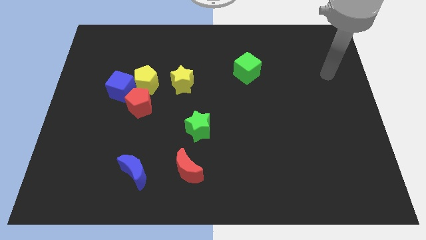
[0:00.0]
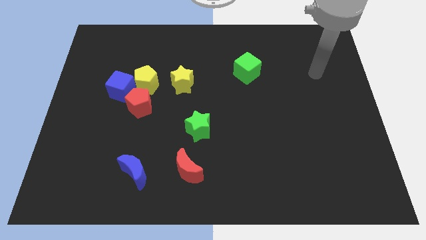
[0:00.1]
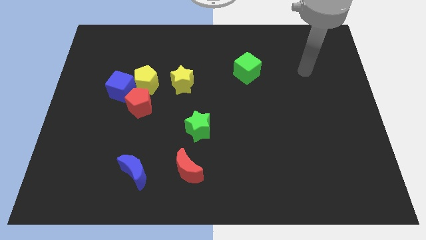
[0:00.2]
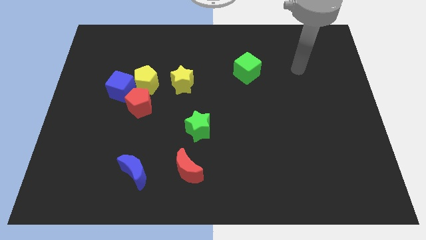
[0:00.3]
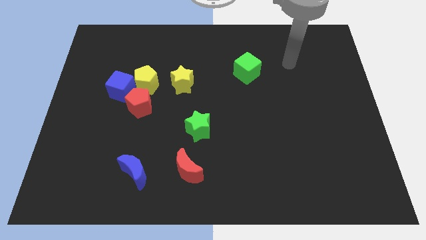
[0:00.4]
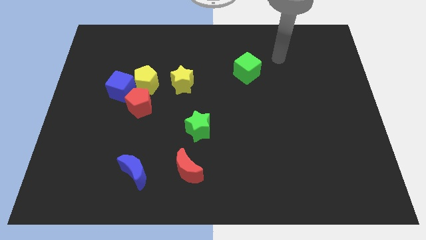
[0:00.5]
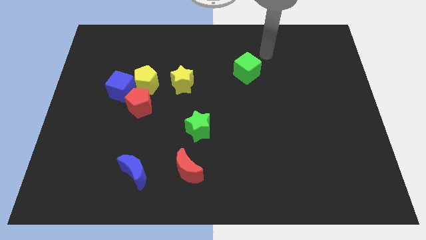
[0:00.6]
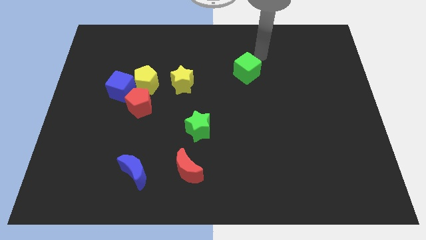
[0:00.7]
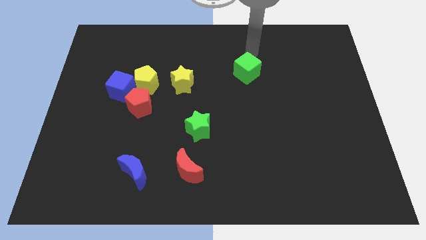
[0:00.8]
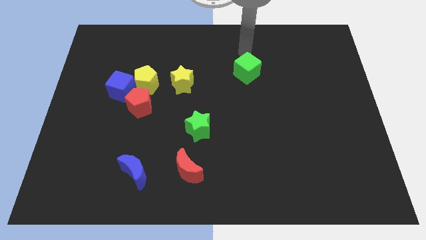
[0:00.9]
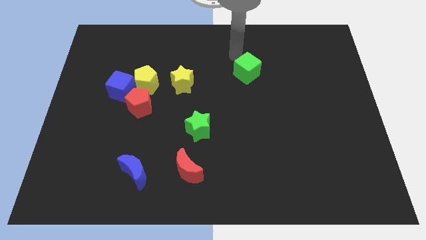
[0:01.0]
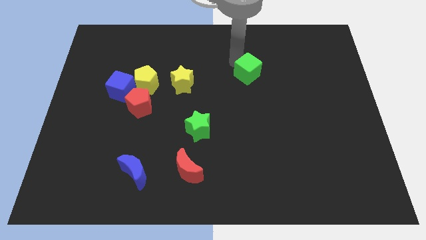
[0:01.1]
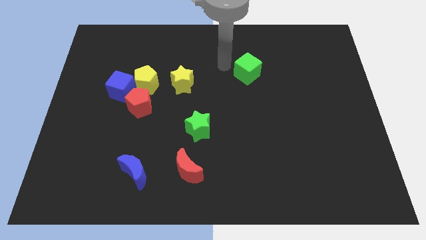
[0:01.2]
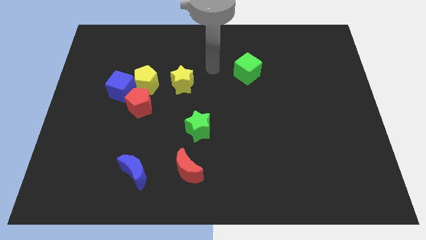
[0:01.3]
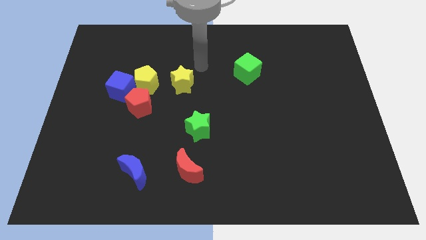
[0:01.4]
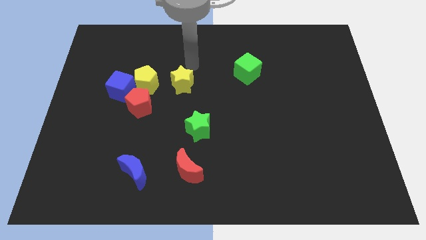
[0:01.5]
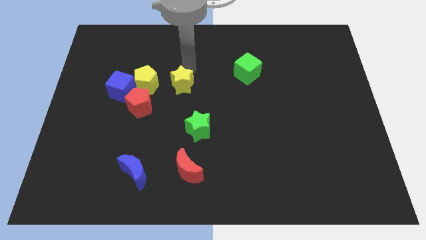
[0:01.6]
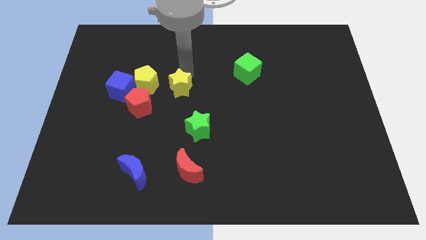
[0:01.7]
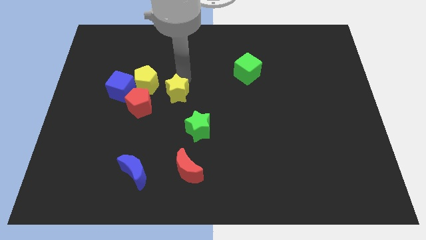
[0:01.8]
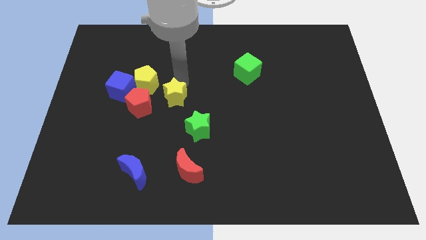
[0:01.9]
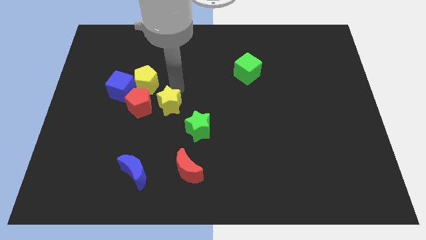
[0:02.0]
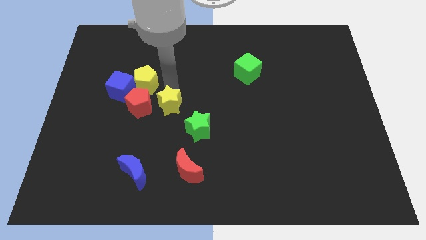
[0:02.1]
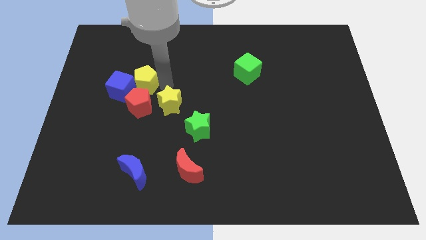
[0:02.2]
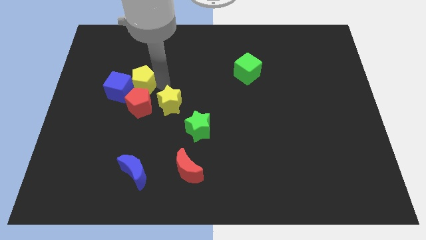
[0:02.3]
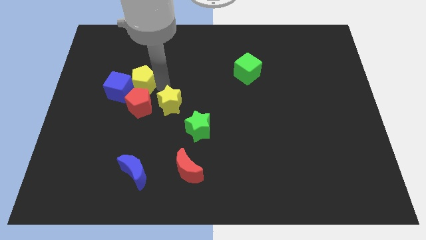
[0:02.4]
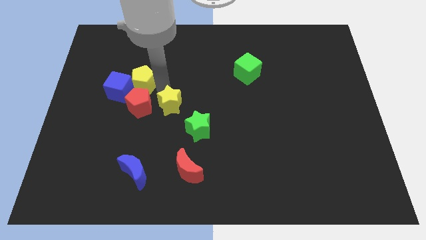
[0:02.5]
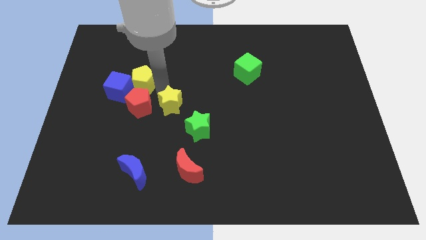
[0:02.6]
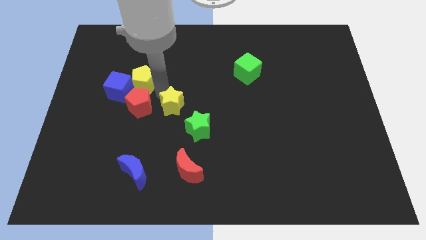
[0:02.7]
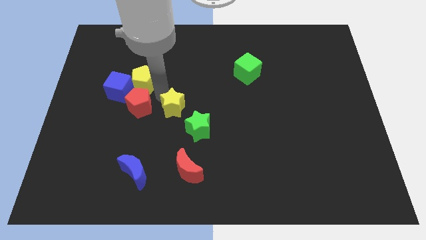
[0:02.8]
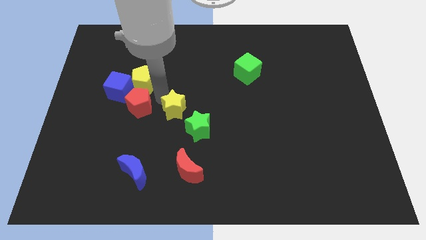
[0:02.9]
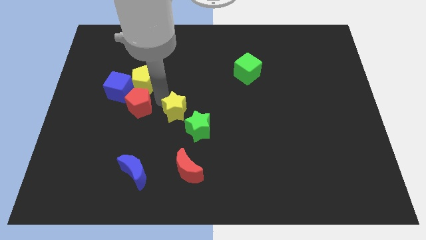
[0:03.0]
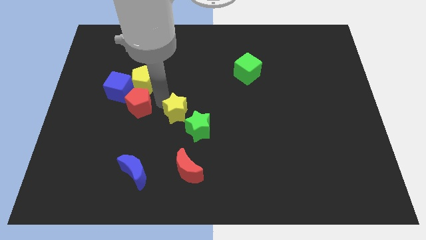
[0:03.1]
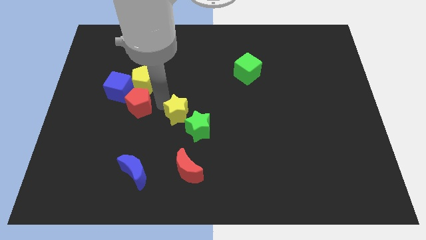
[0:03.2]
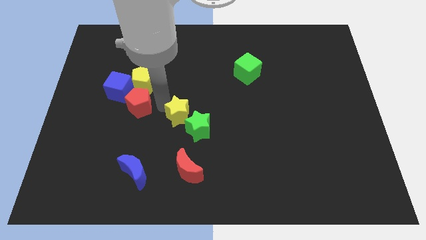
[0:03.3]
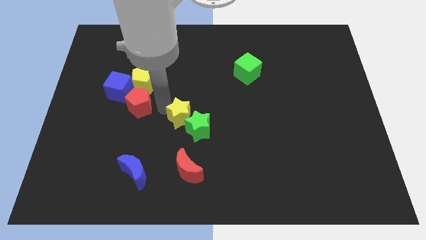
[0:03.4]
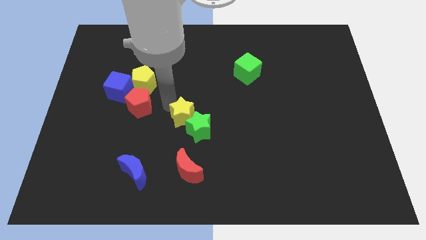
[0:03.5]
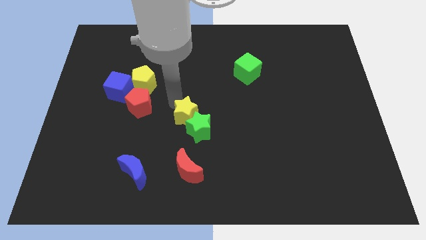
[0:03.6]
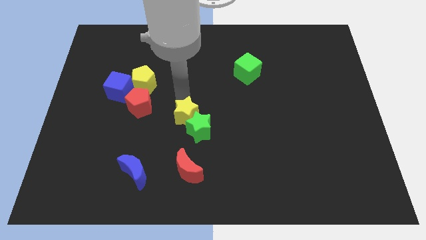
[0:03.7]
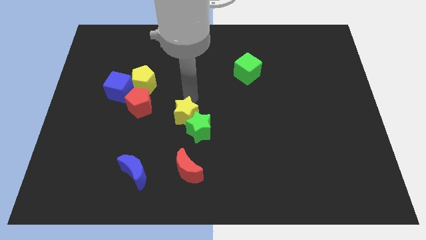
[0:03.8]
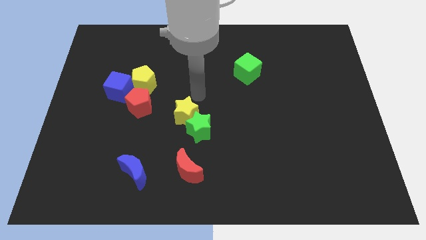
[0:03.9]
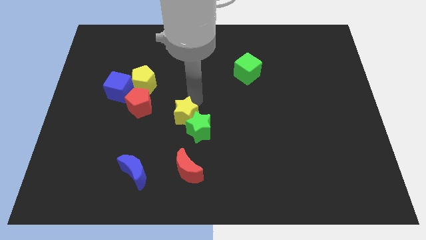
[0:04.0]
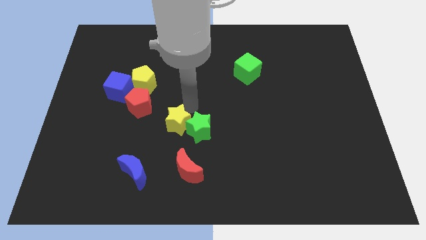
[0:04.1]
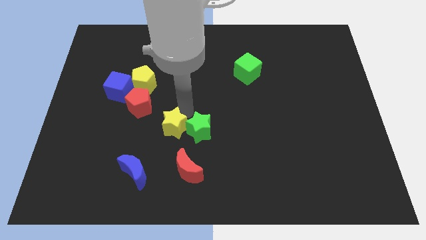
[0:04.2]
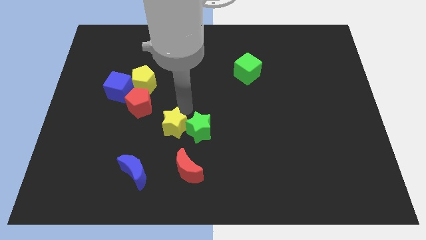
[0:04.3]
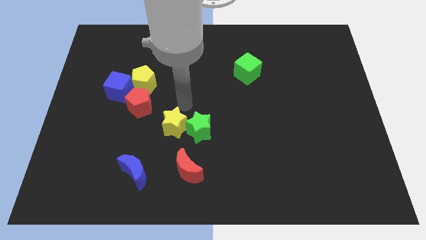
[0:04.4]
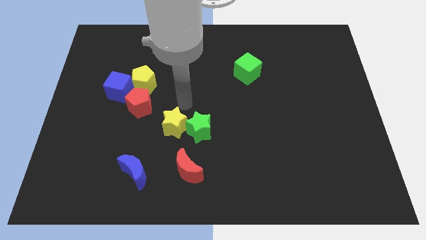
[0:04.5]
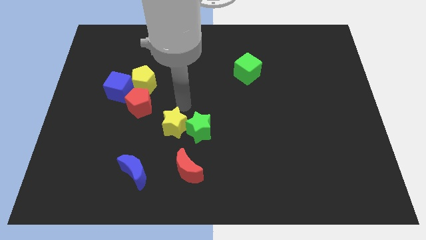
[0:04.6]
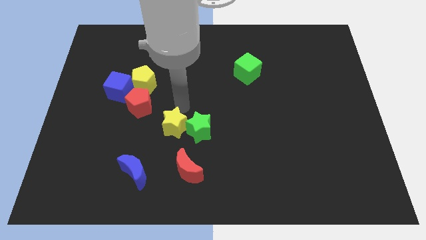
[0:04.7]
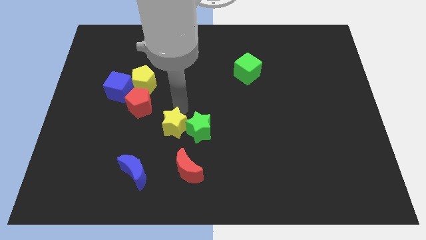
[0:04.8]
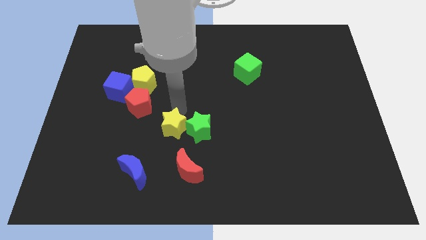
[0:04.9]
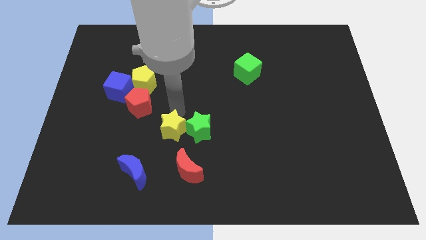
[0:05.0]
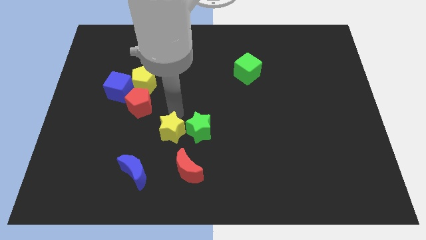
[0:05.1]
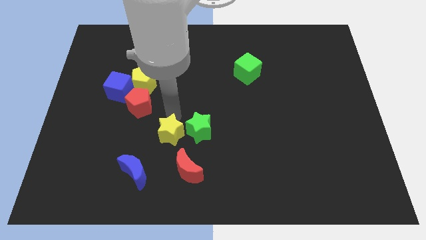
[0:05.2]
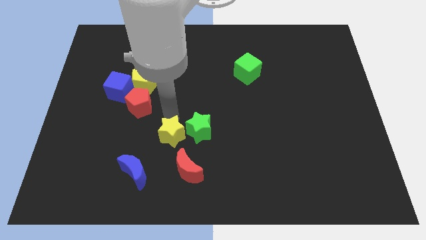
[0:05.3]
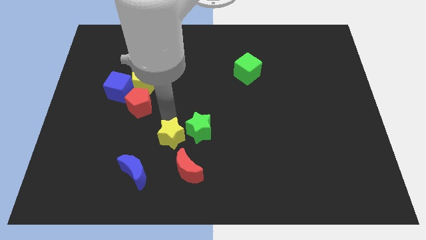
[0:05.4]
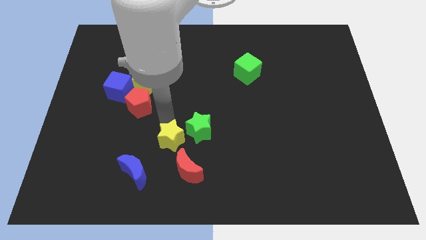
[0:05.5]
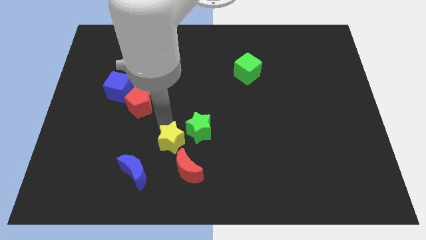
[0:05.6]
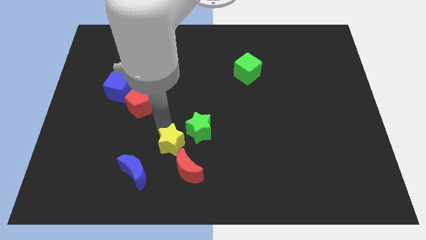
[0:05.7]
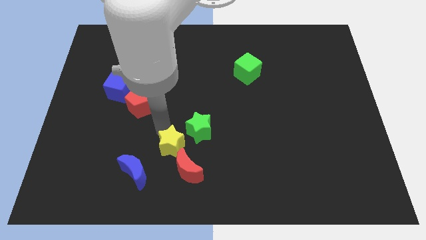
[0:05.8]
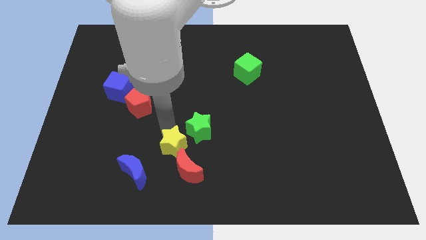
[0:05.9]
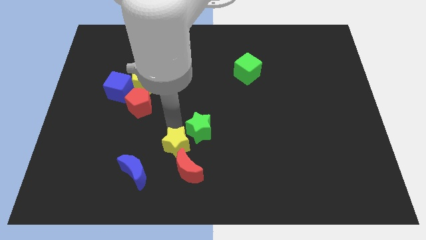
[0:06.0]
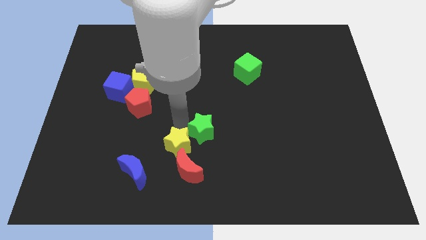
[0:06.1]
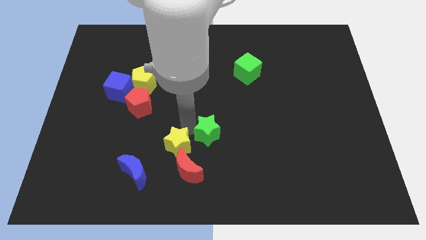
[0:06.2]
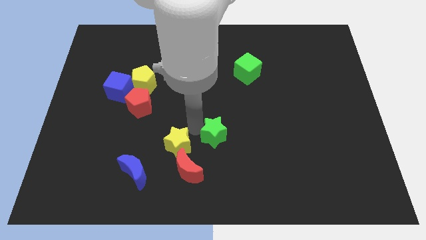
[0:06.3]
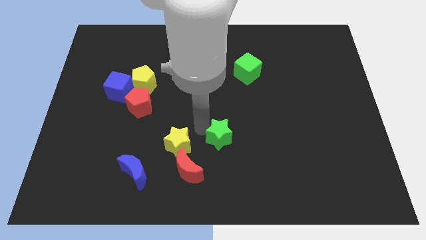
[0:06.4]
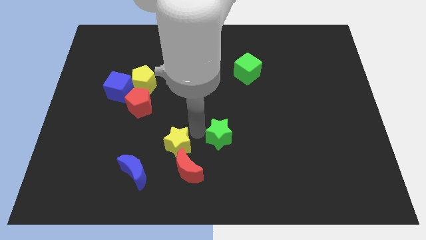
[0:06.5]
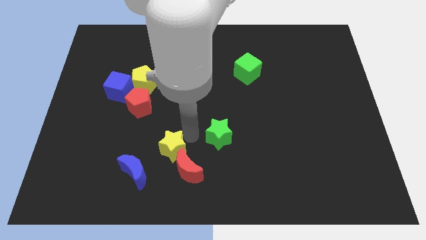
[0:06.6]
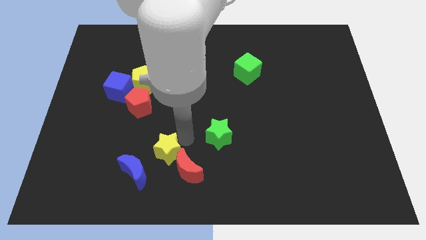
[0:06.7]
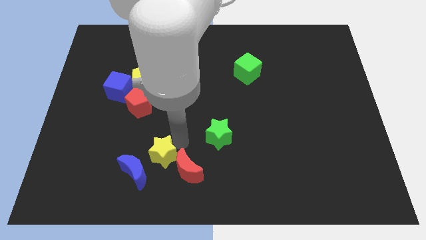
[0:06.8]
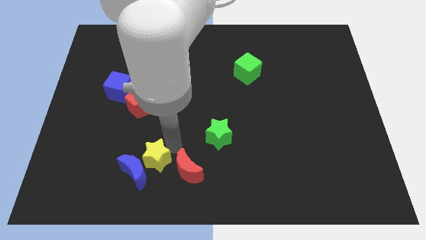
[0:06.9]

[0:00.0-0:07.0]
slide the yellow star close to the blue moon

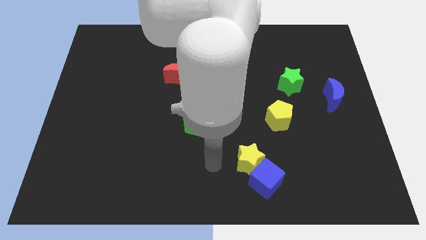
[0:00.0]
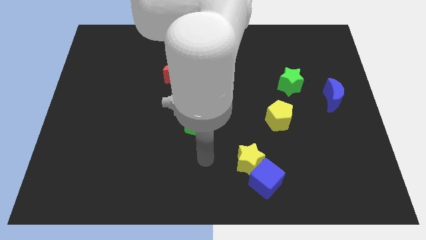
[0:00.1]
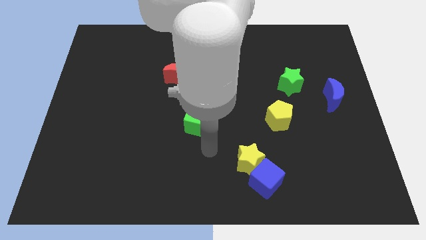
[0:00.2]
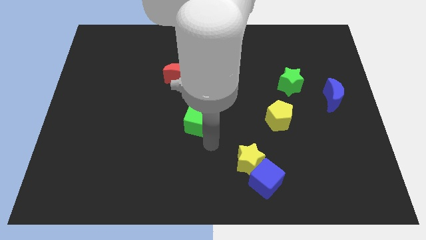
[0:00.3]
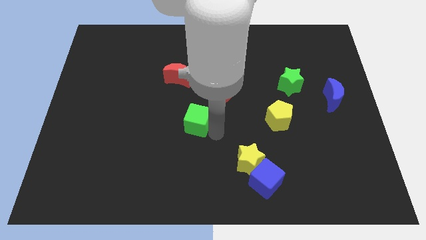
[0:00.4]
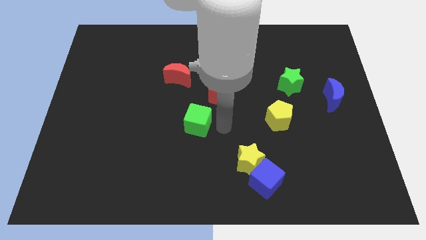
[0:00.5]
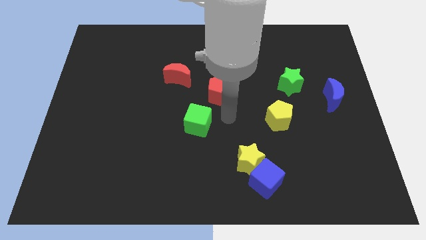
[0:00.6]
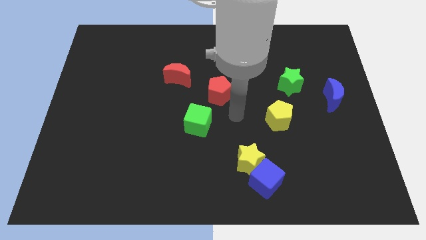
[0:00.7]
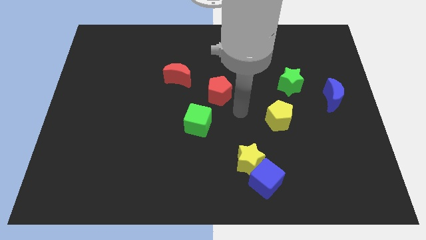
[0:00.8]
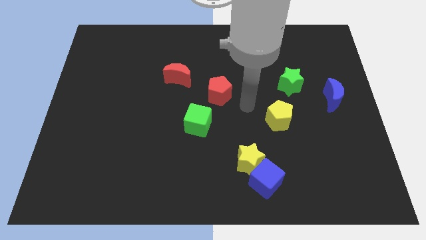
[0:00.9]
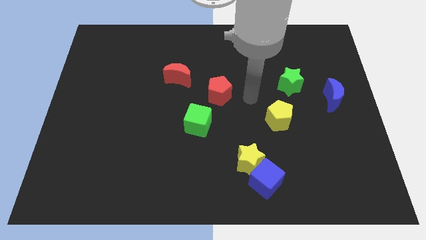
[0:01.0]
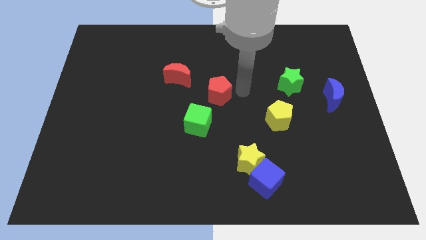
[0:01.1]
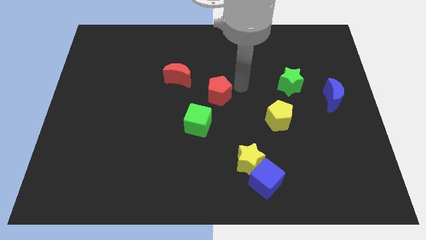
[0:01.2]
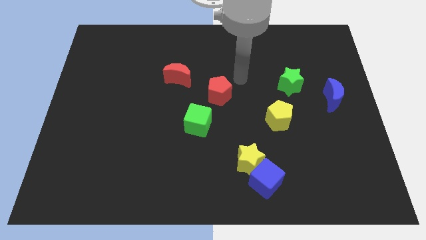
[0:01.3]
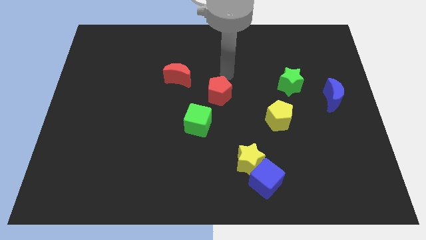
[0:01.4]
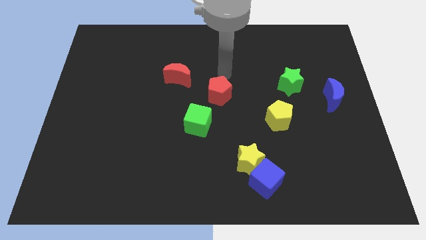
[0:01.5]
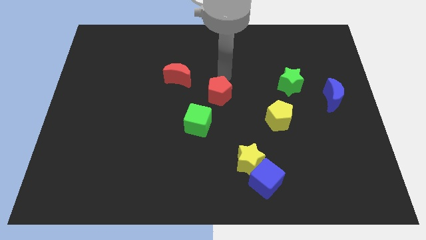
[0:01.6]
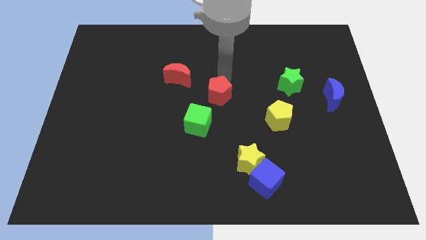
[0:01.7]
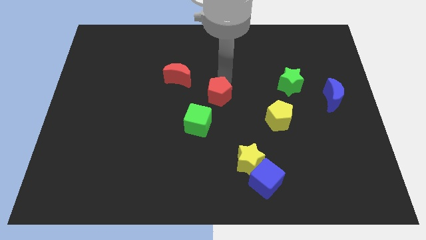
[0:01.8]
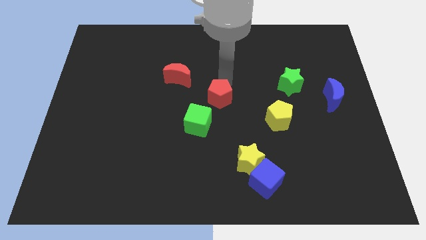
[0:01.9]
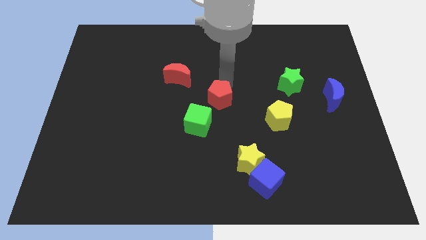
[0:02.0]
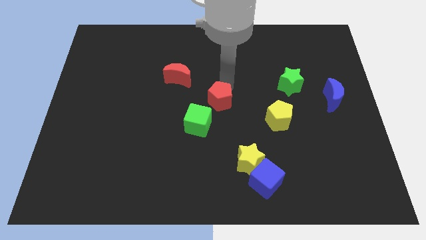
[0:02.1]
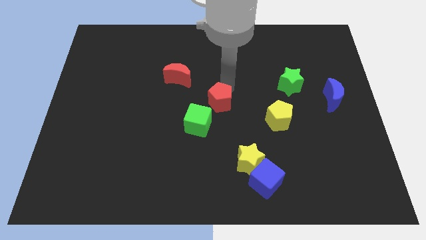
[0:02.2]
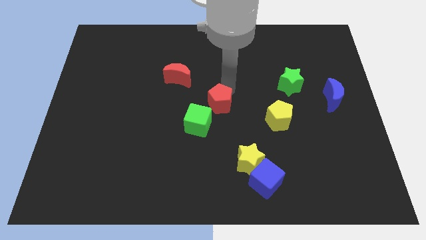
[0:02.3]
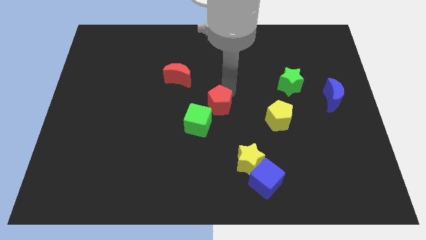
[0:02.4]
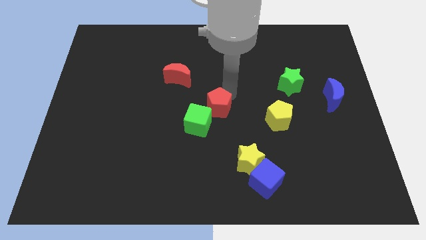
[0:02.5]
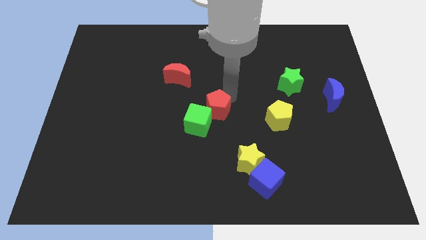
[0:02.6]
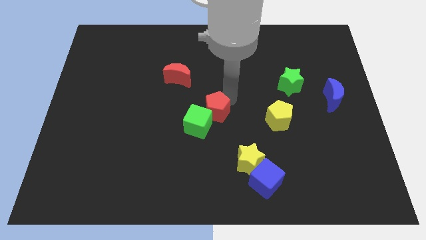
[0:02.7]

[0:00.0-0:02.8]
push the red pentagon to the green cube
